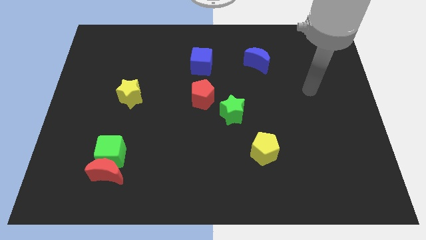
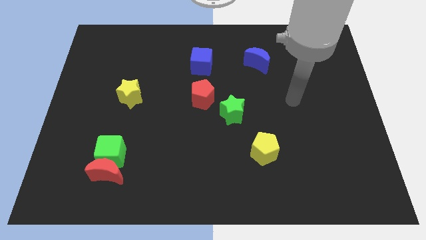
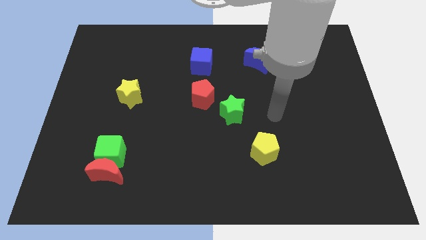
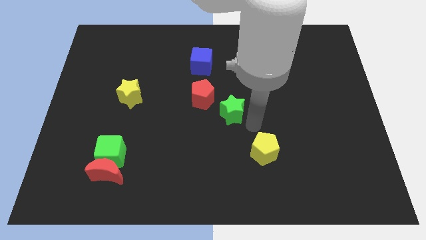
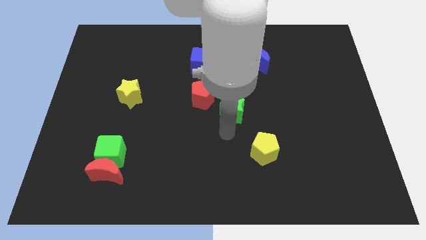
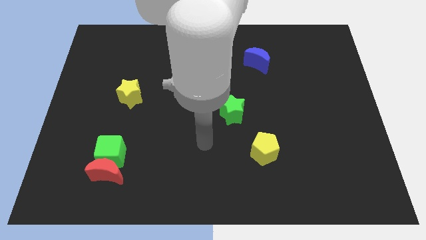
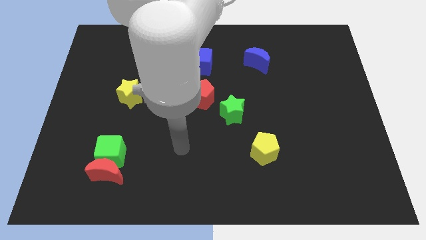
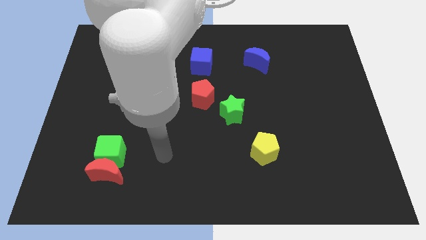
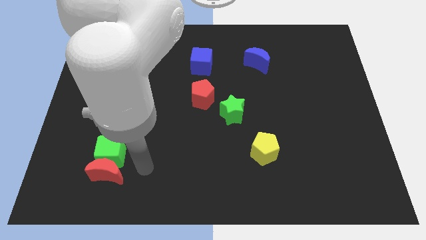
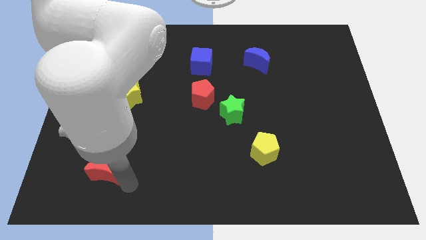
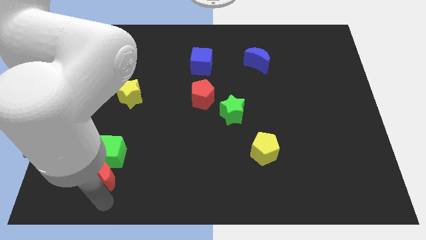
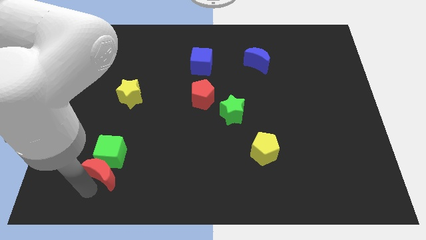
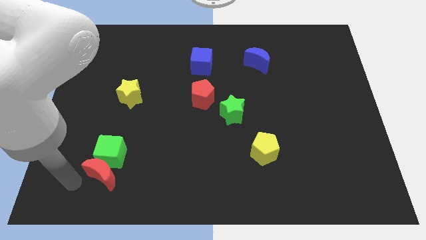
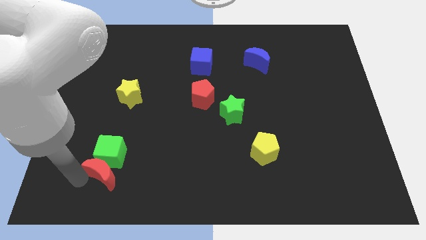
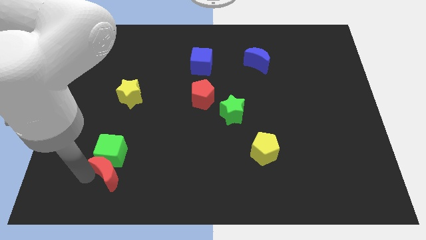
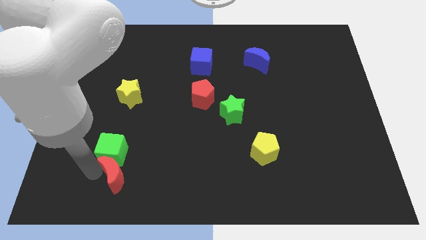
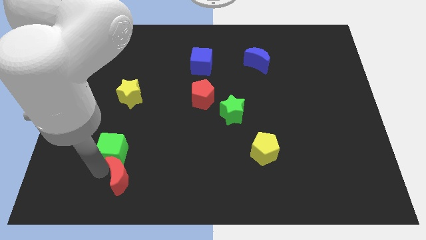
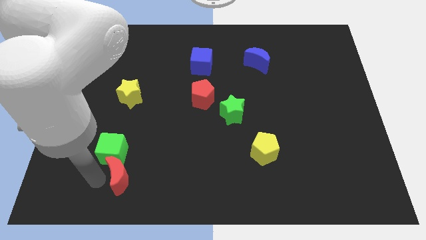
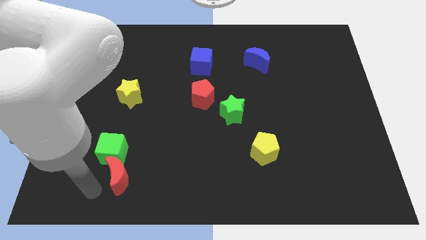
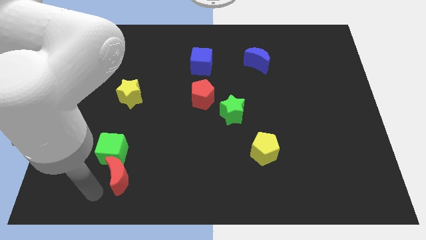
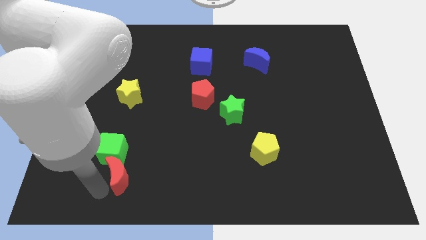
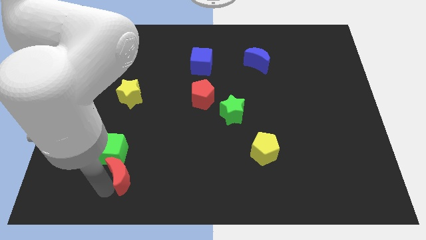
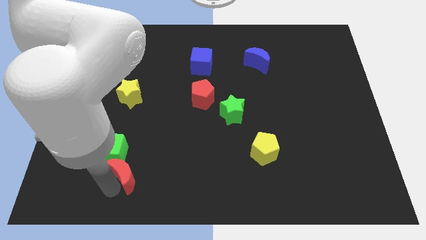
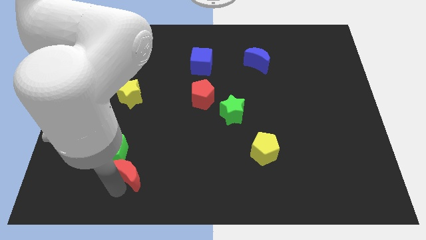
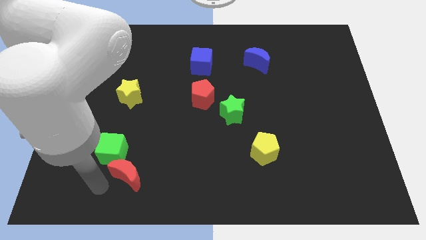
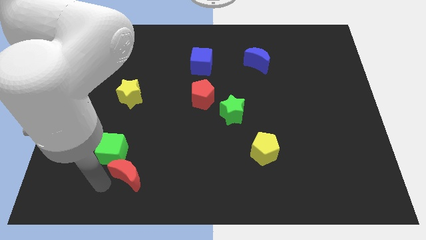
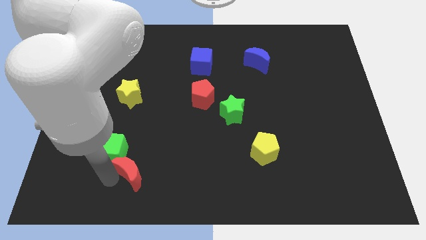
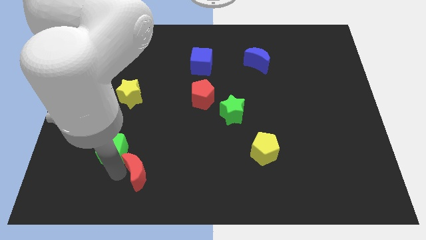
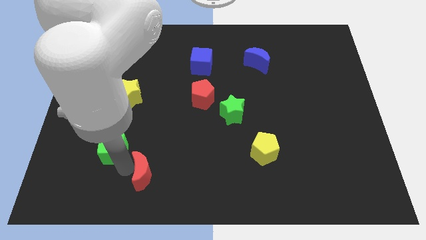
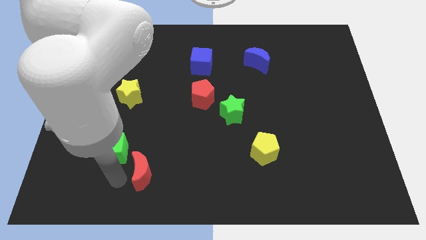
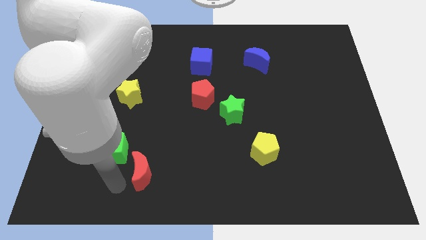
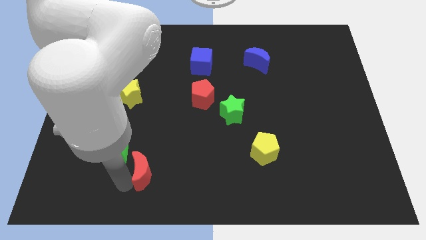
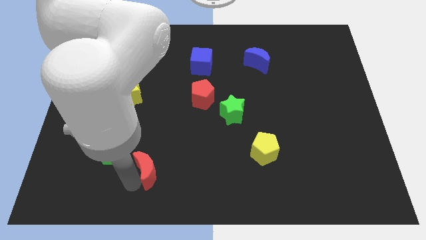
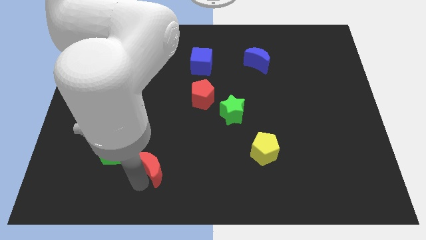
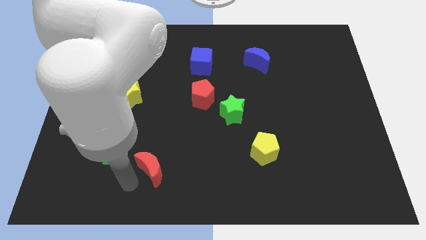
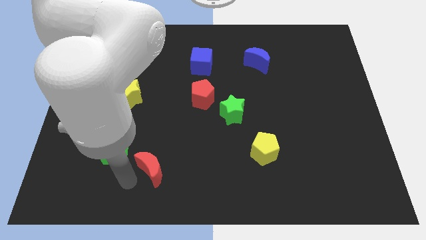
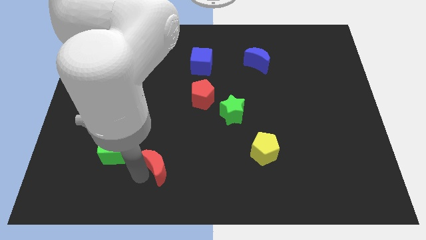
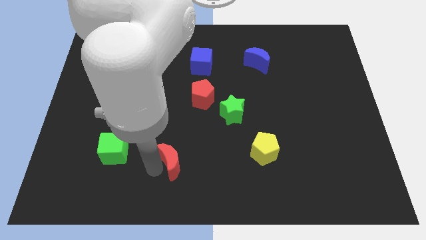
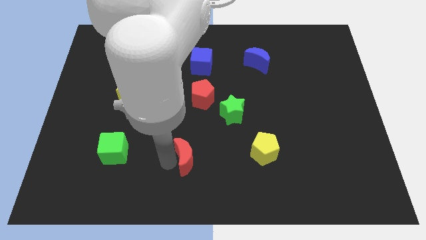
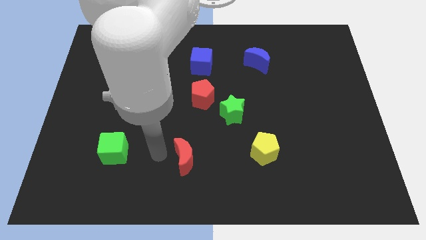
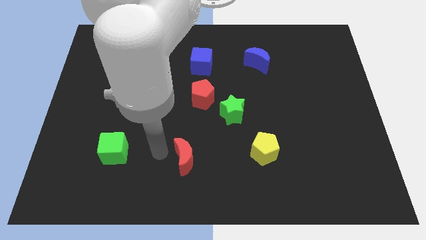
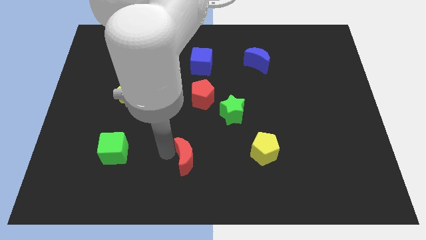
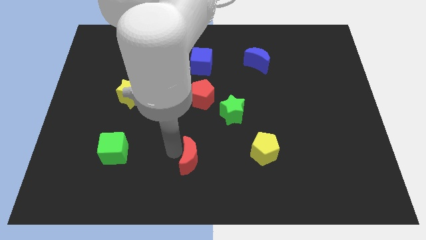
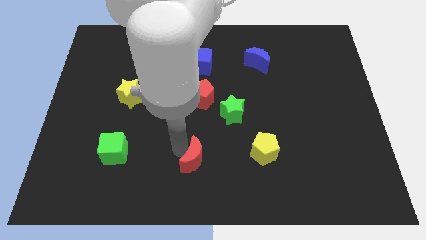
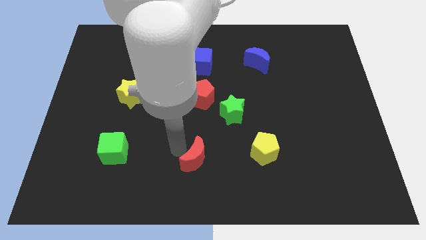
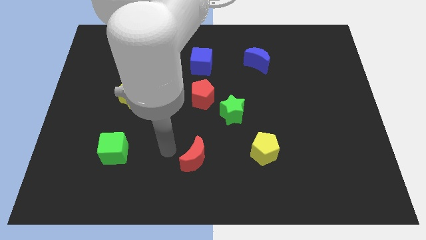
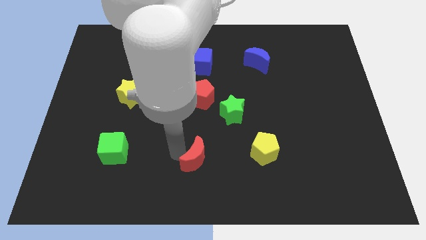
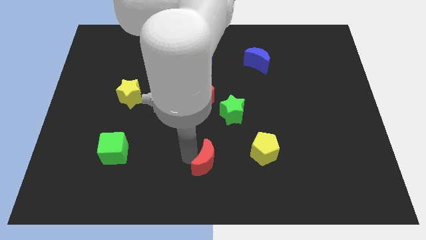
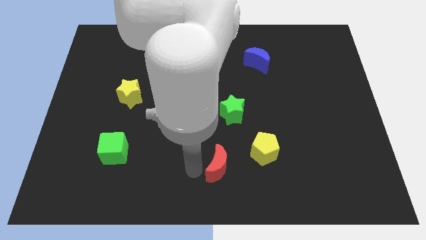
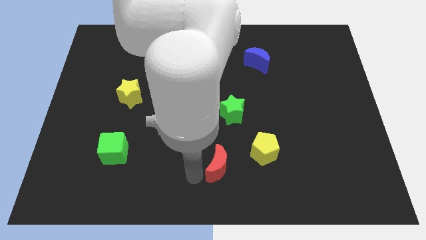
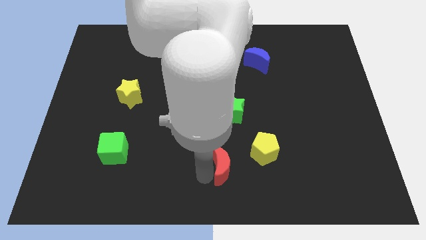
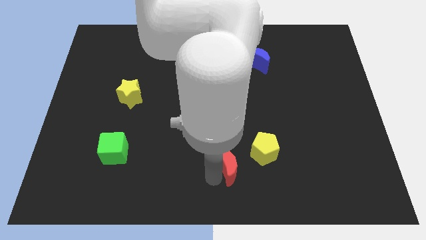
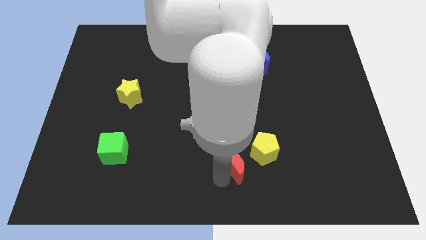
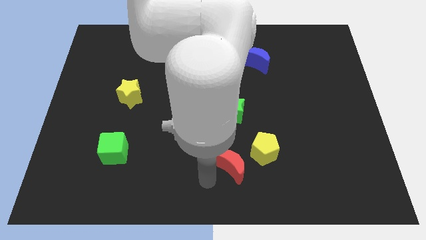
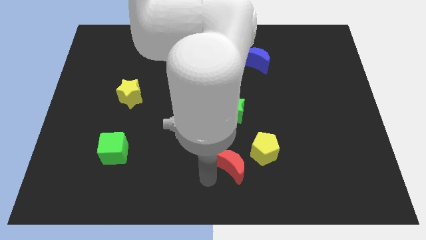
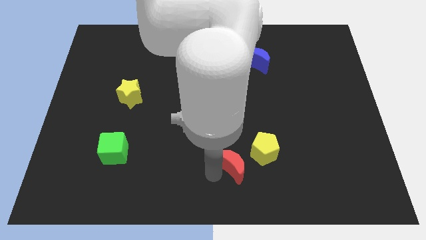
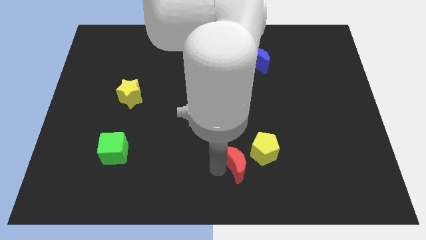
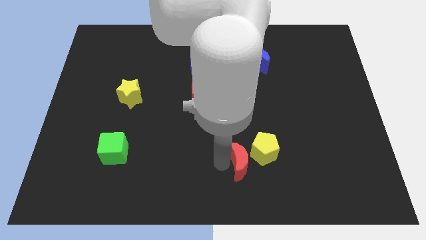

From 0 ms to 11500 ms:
slide the red moon close to the yellow pentagon

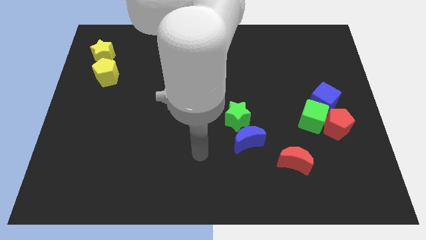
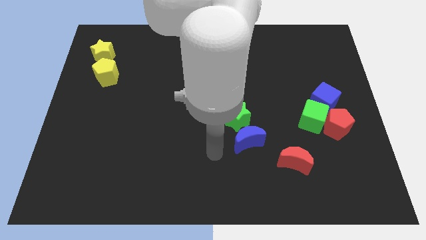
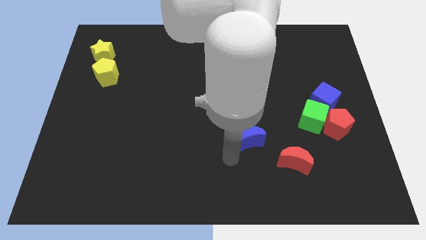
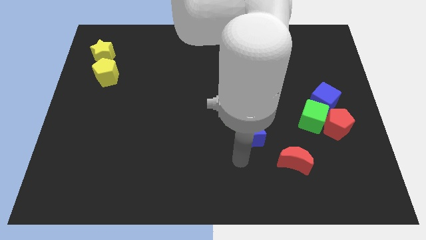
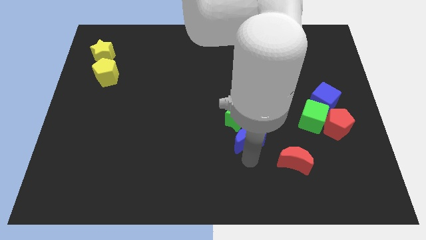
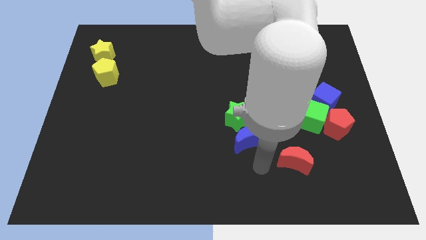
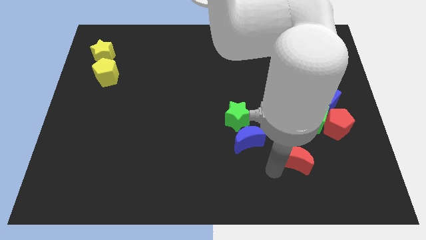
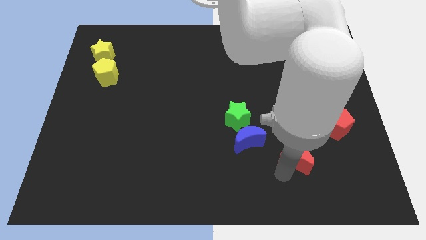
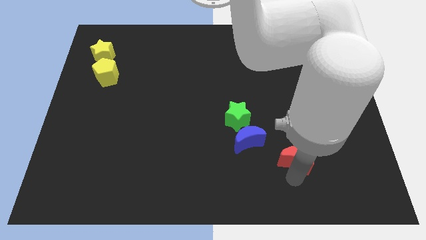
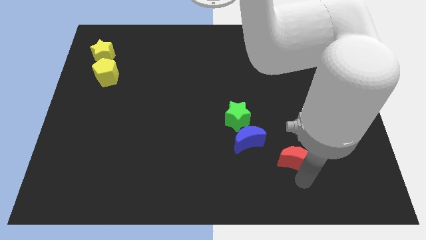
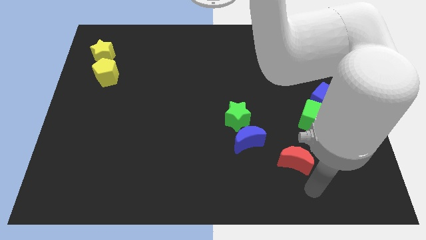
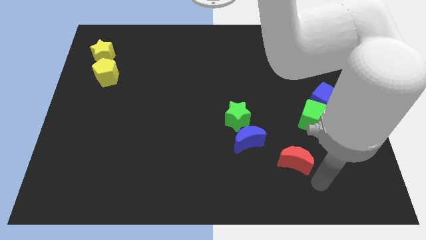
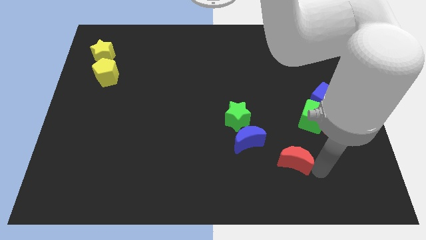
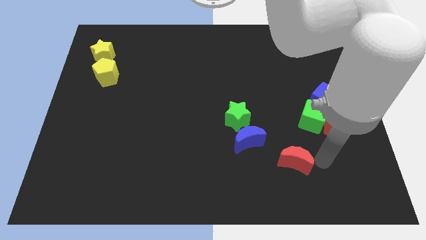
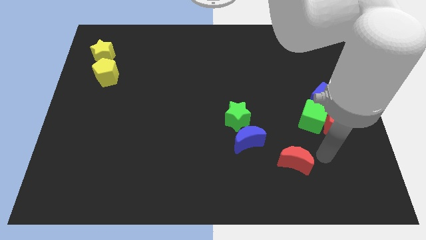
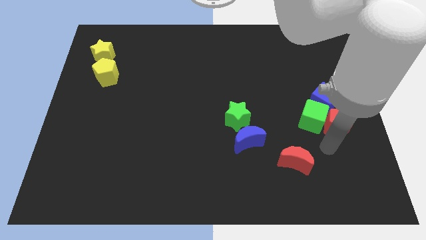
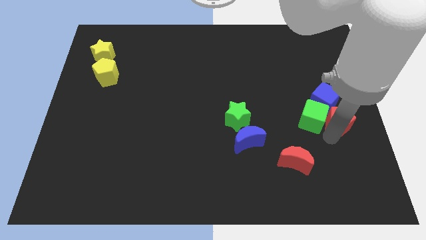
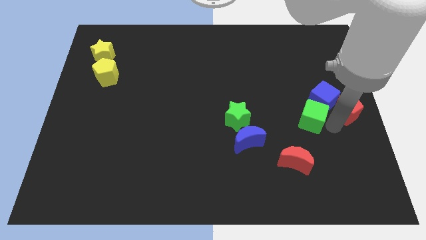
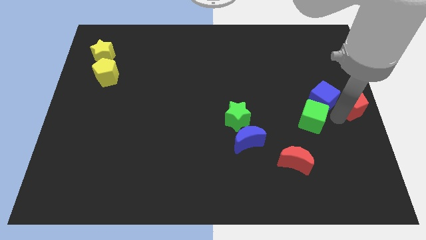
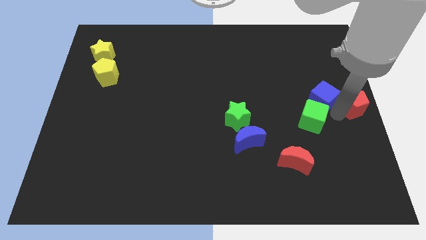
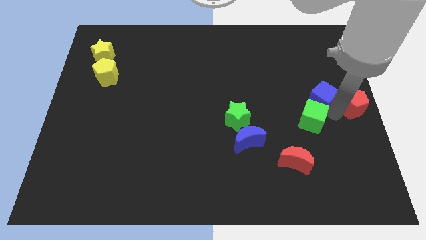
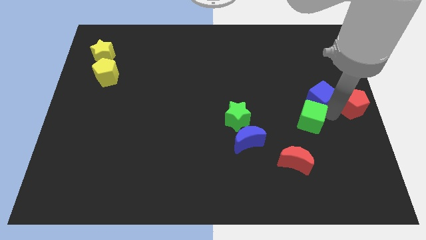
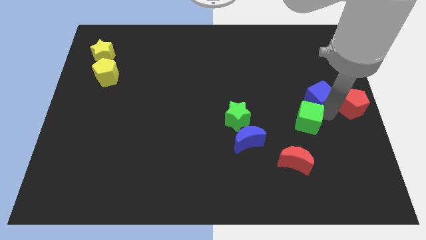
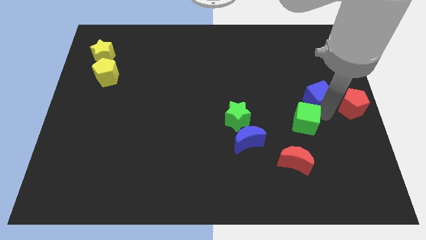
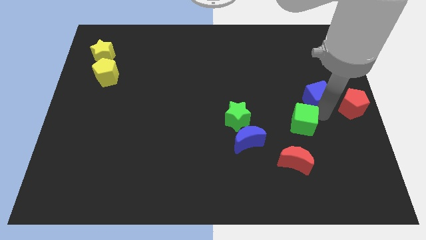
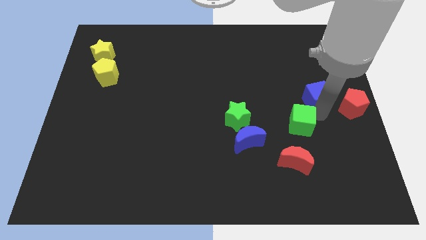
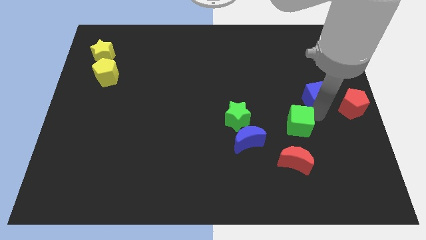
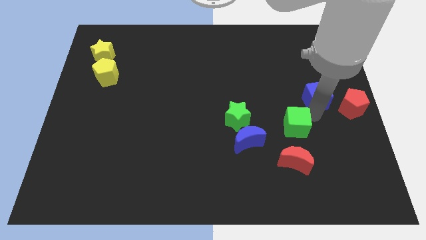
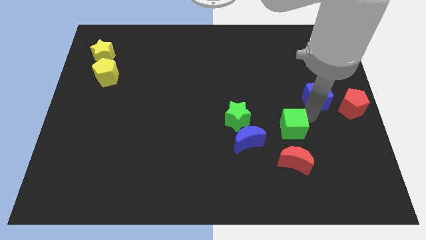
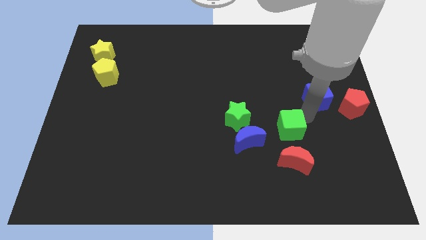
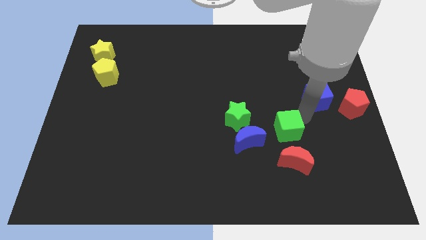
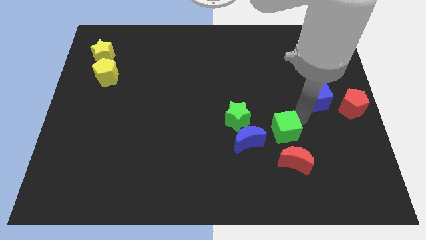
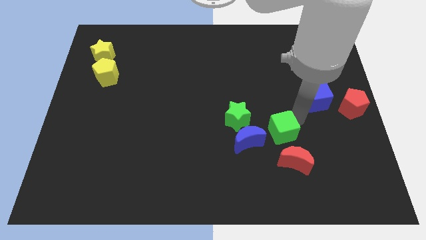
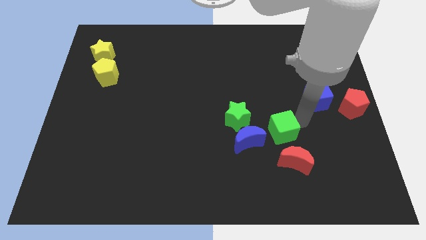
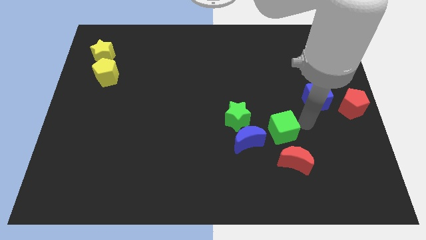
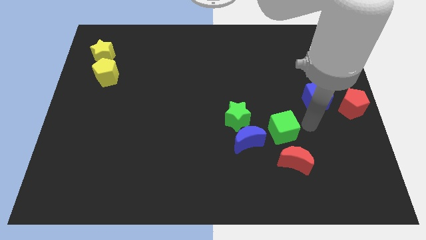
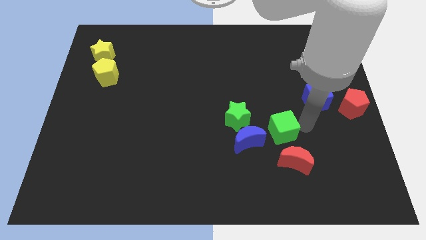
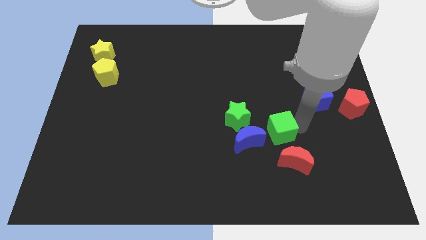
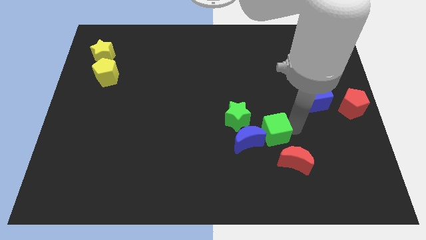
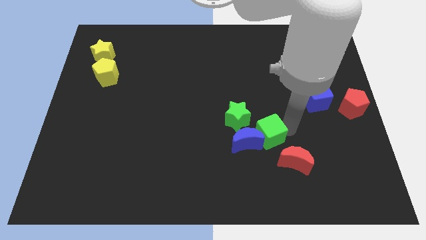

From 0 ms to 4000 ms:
move the green cube next to the blue moon
